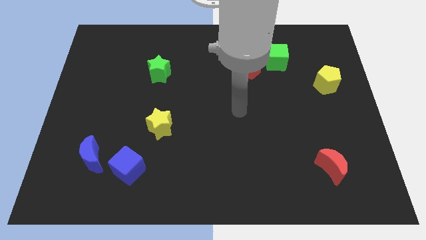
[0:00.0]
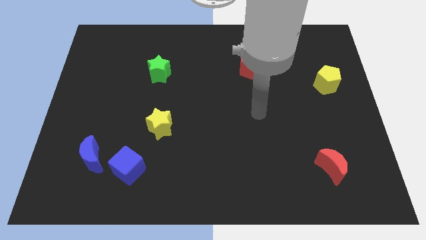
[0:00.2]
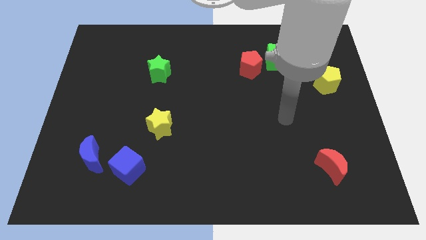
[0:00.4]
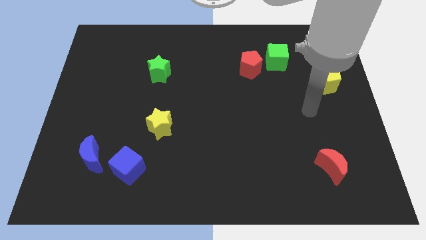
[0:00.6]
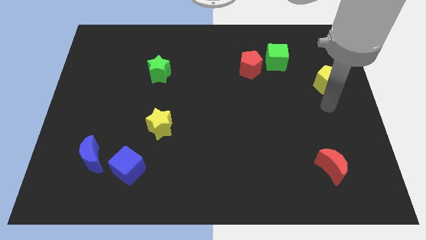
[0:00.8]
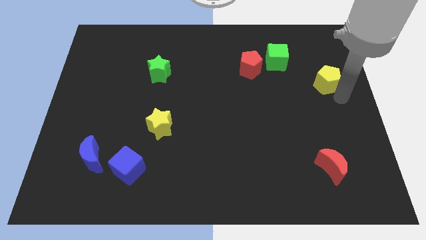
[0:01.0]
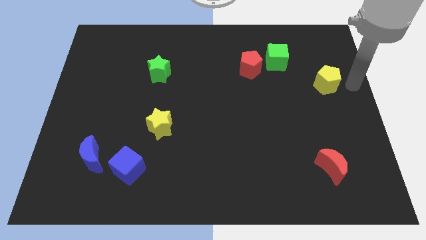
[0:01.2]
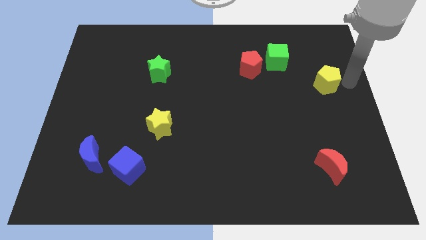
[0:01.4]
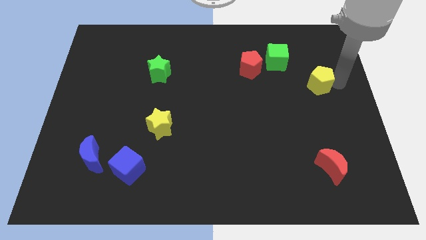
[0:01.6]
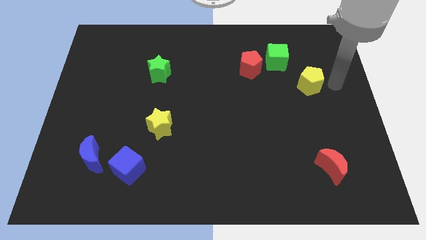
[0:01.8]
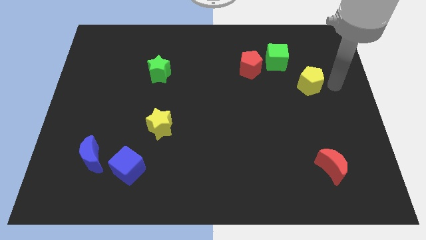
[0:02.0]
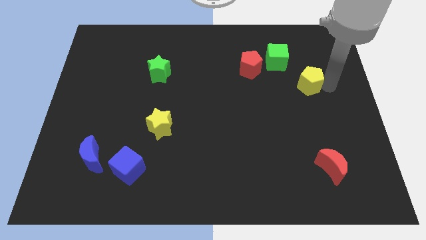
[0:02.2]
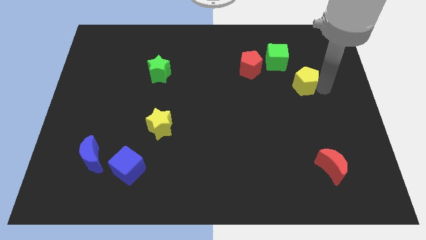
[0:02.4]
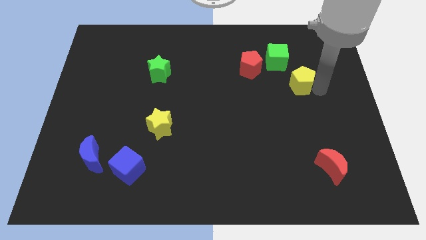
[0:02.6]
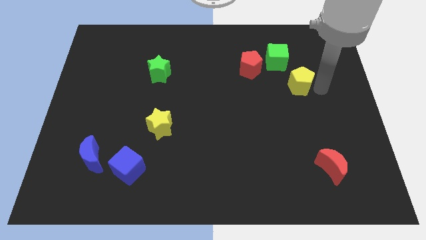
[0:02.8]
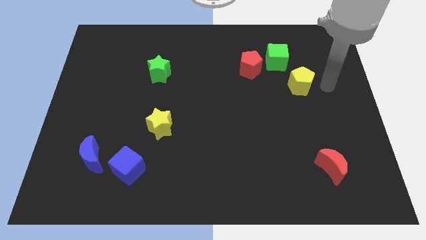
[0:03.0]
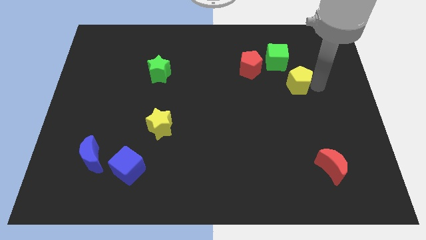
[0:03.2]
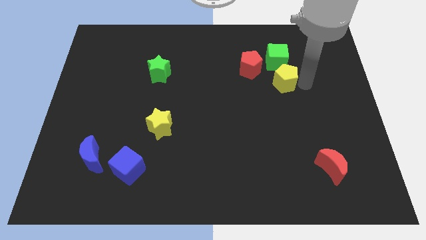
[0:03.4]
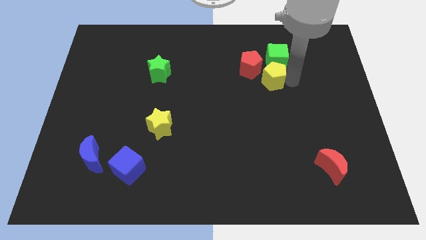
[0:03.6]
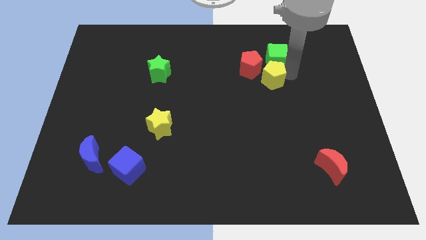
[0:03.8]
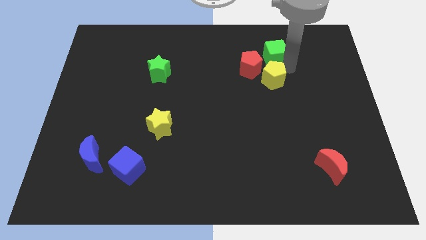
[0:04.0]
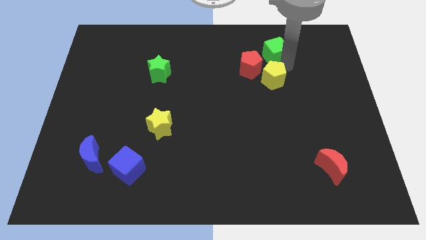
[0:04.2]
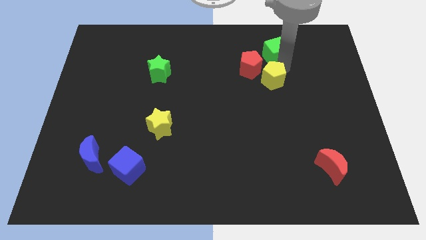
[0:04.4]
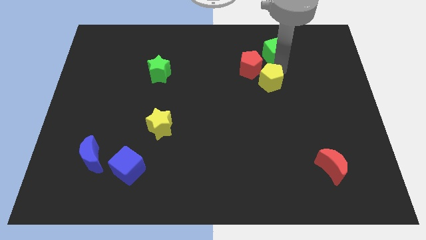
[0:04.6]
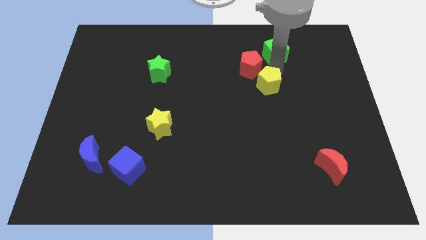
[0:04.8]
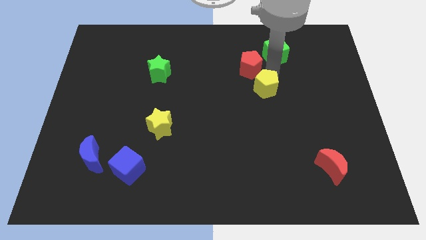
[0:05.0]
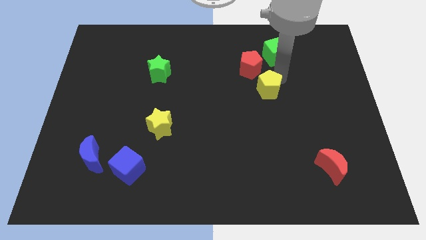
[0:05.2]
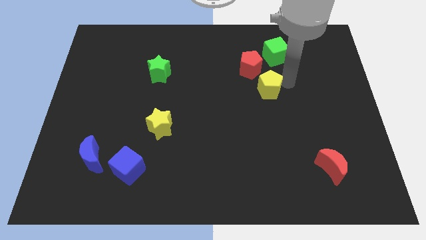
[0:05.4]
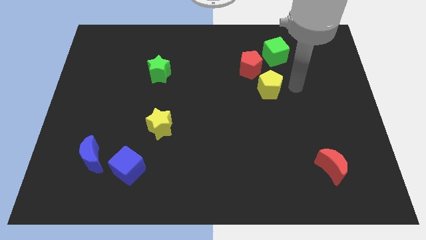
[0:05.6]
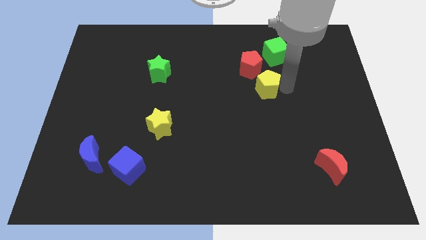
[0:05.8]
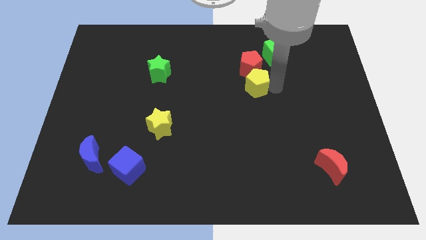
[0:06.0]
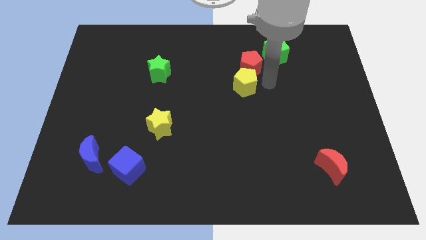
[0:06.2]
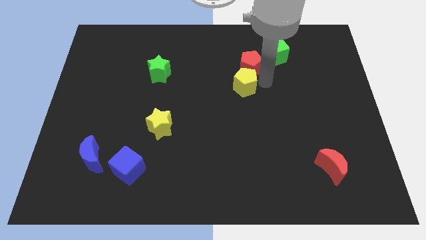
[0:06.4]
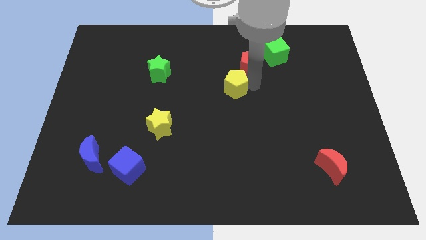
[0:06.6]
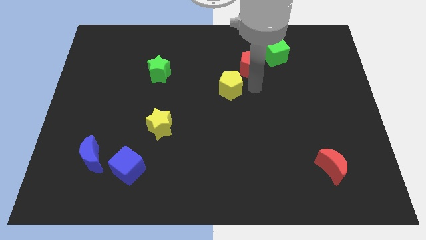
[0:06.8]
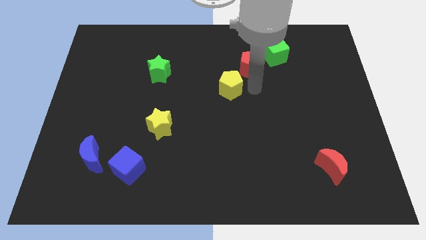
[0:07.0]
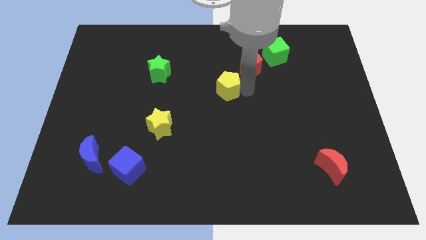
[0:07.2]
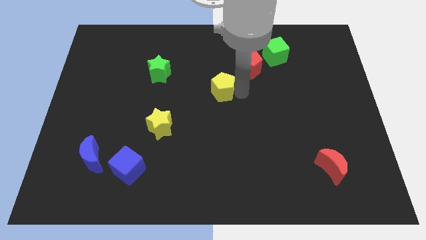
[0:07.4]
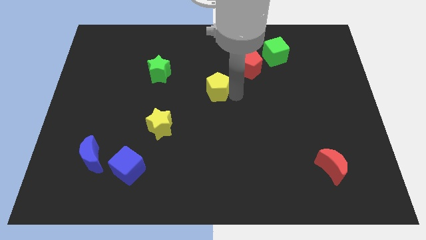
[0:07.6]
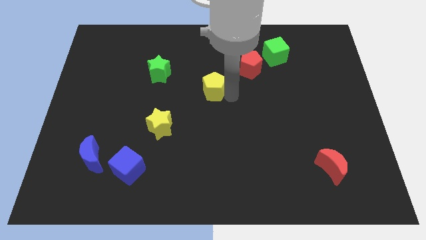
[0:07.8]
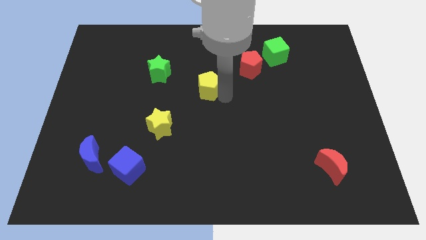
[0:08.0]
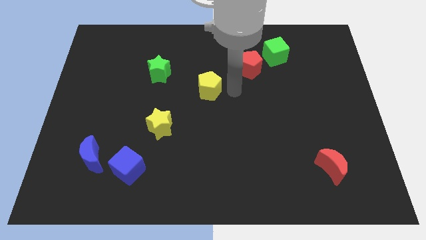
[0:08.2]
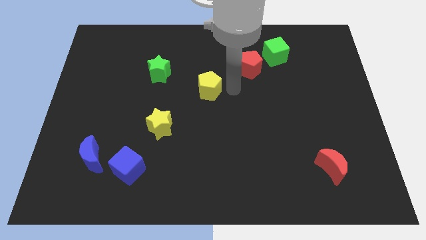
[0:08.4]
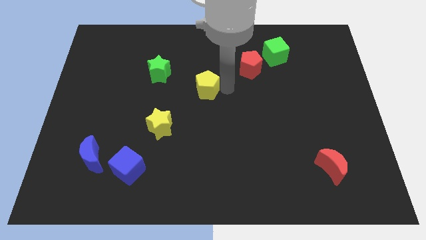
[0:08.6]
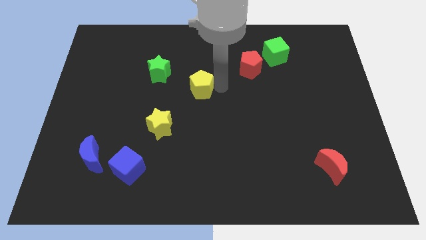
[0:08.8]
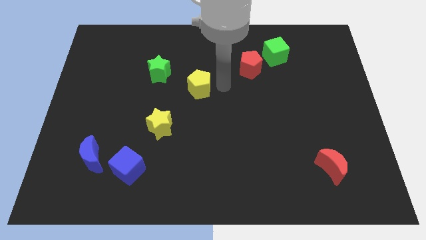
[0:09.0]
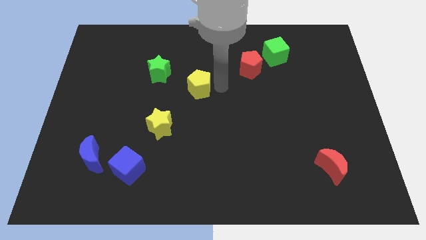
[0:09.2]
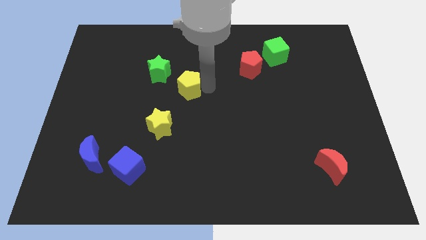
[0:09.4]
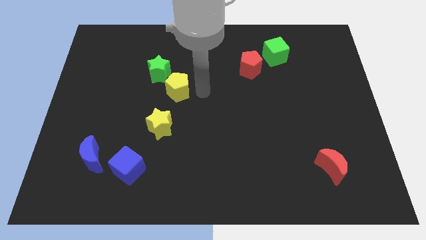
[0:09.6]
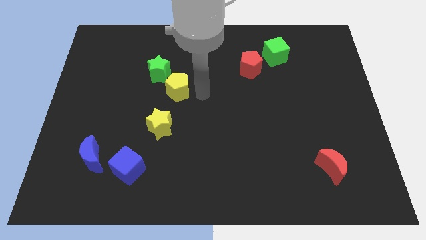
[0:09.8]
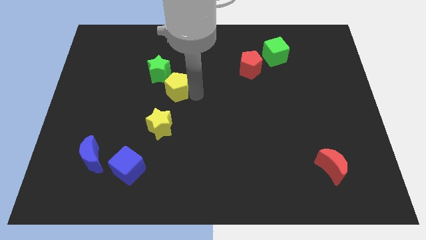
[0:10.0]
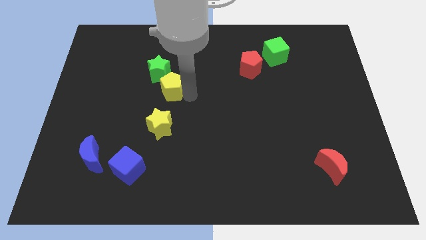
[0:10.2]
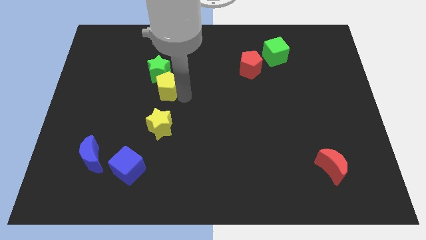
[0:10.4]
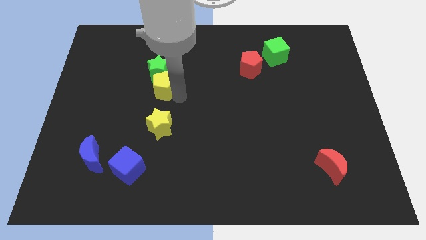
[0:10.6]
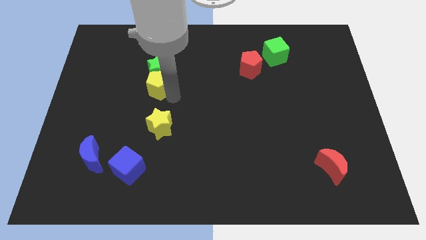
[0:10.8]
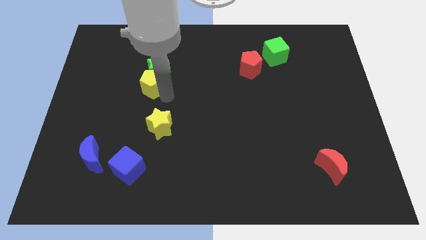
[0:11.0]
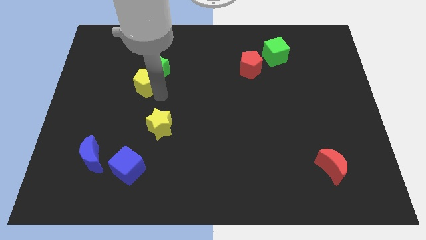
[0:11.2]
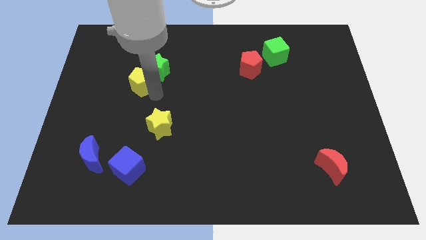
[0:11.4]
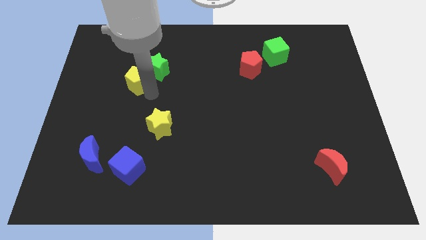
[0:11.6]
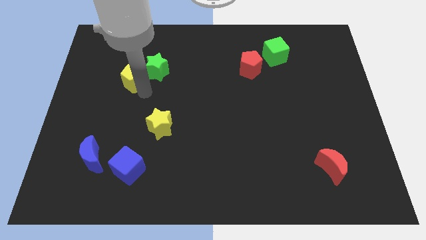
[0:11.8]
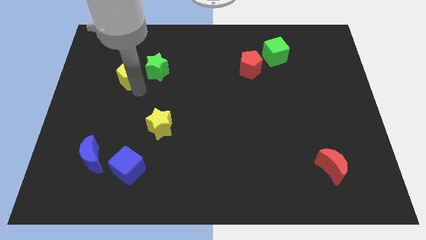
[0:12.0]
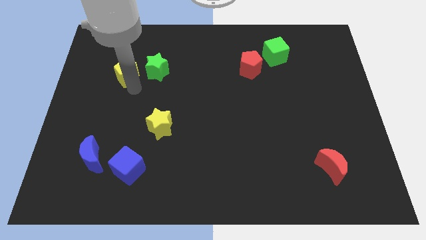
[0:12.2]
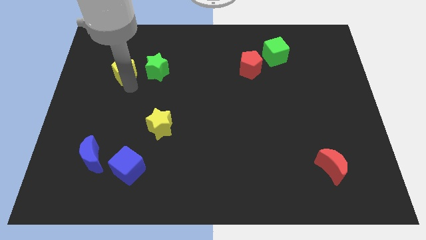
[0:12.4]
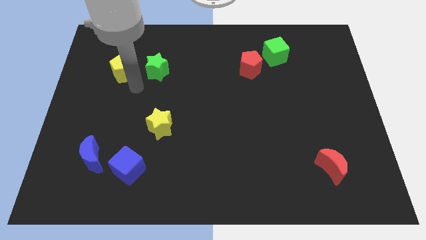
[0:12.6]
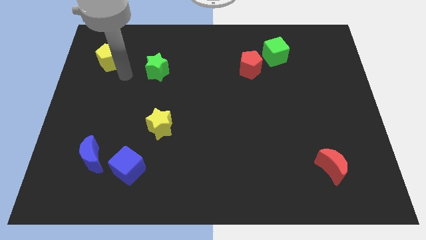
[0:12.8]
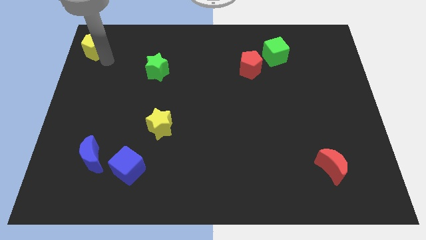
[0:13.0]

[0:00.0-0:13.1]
push the yellow pentagon to the upper left corner
